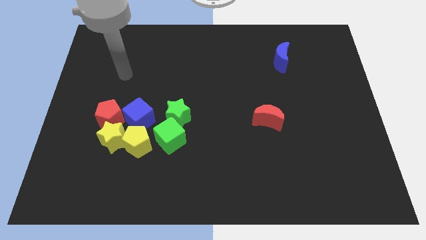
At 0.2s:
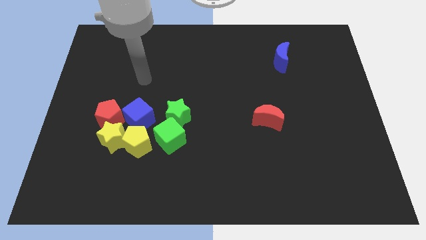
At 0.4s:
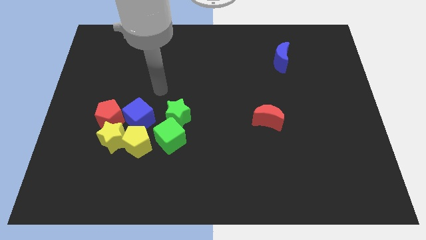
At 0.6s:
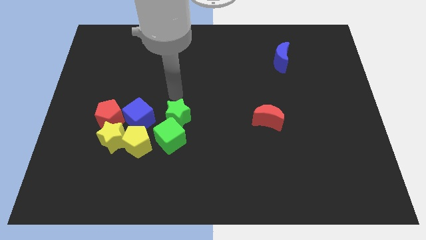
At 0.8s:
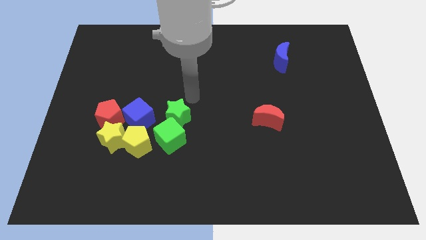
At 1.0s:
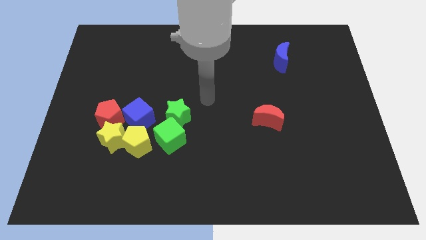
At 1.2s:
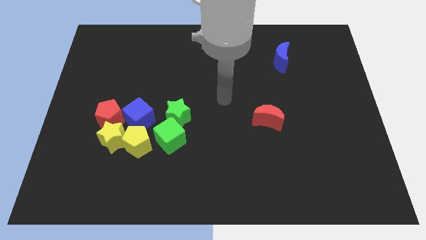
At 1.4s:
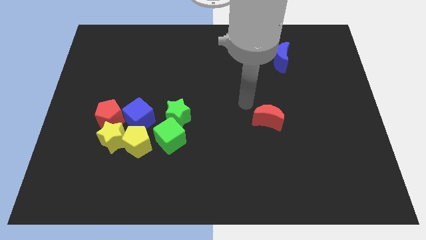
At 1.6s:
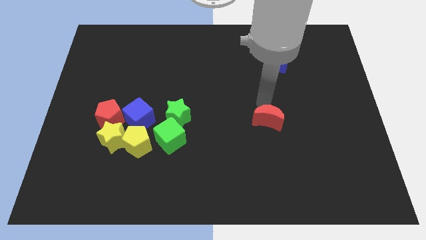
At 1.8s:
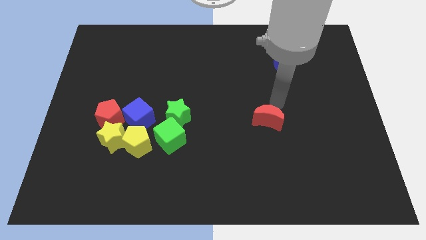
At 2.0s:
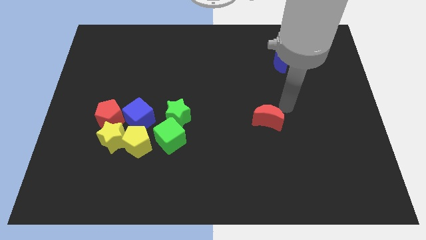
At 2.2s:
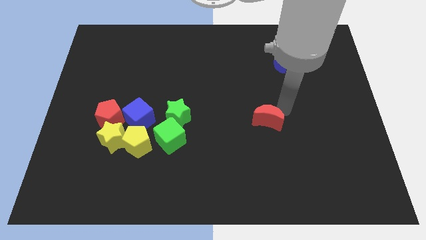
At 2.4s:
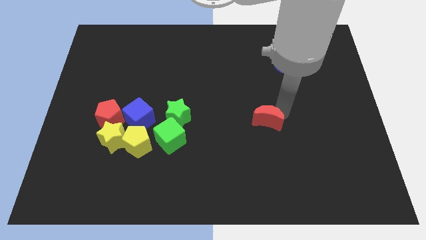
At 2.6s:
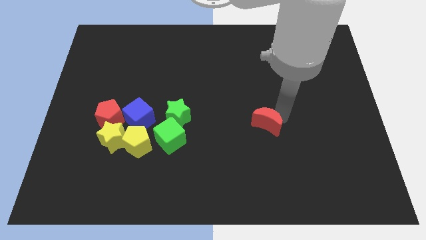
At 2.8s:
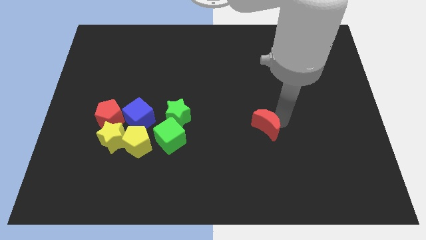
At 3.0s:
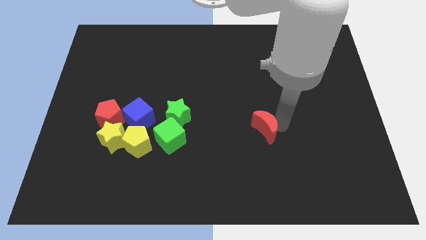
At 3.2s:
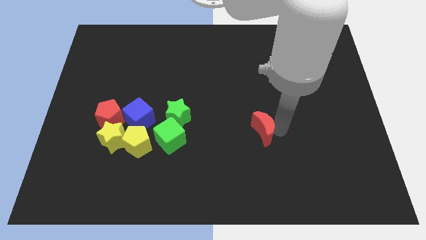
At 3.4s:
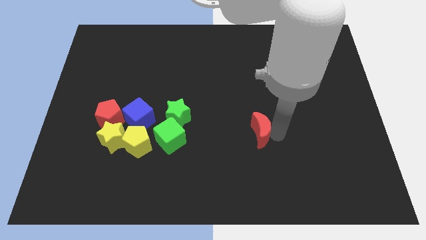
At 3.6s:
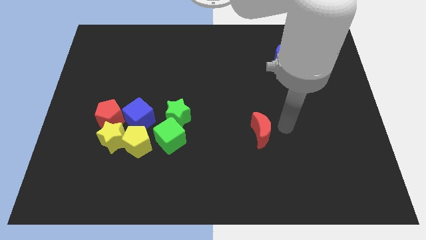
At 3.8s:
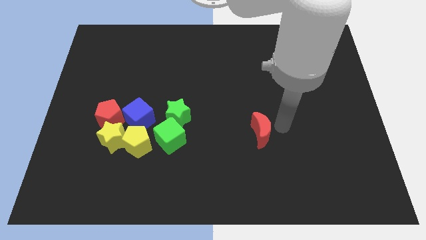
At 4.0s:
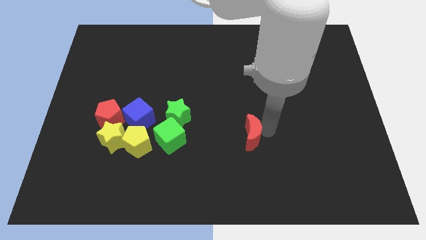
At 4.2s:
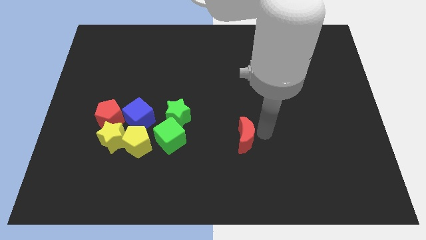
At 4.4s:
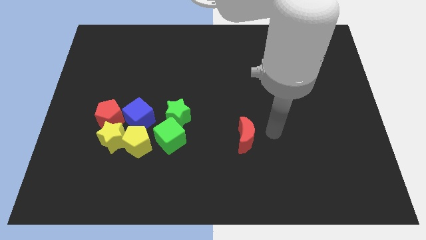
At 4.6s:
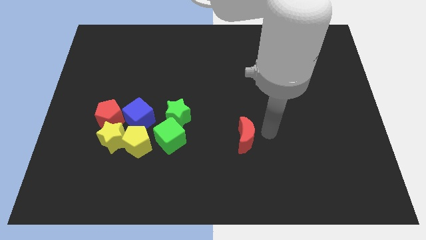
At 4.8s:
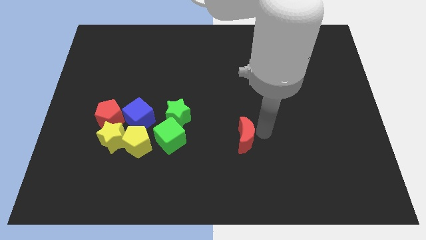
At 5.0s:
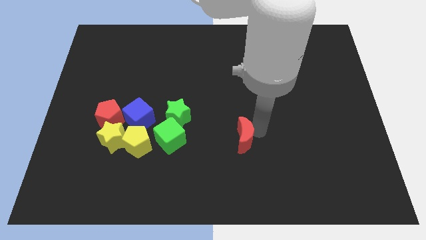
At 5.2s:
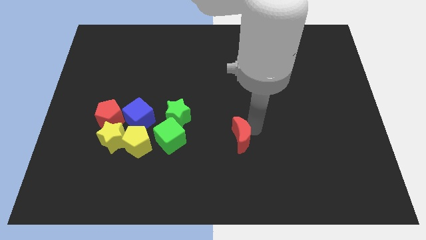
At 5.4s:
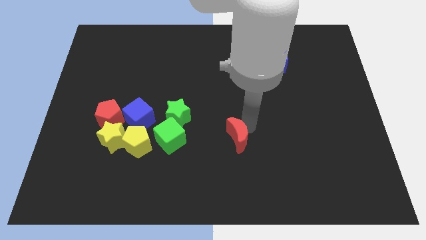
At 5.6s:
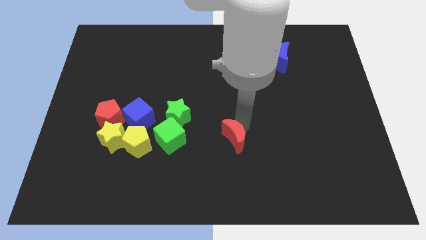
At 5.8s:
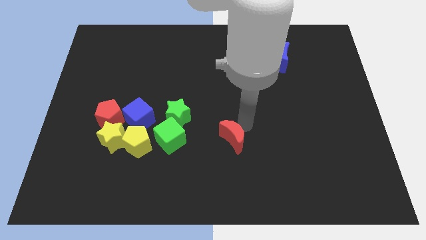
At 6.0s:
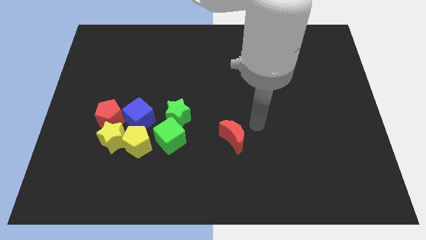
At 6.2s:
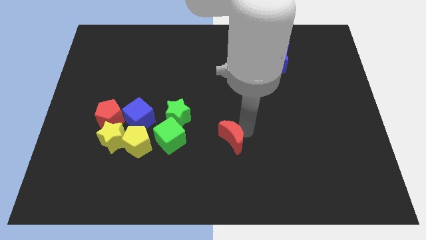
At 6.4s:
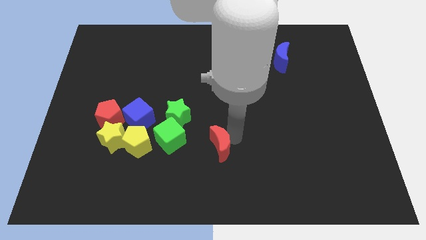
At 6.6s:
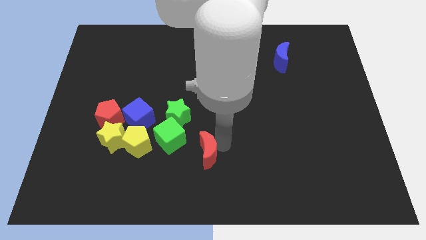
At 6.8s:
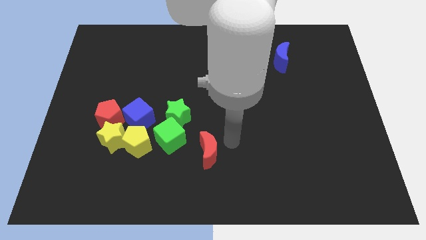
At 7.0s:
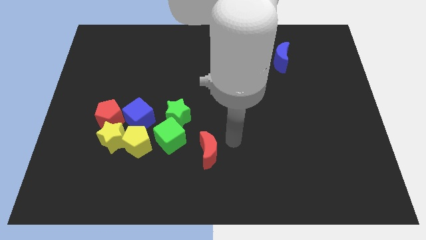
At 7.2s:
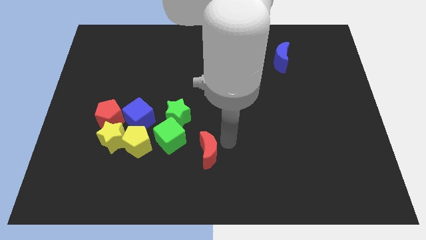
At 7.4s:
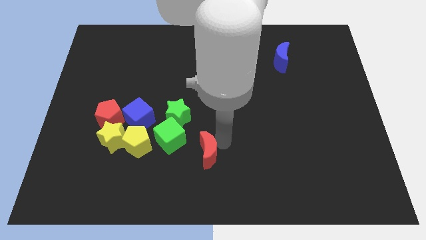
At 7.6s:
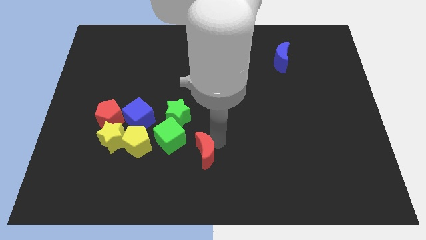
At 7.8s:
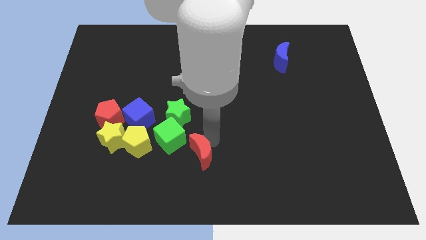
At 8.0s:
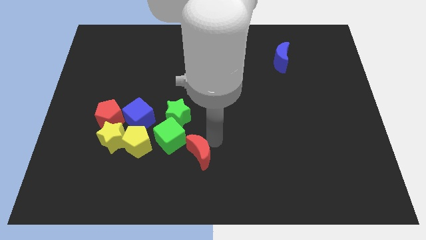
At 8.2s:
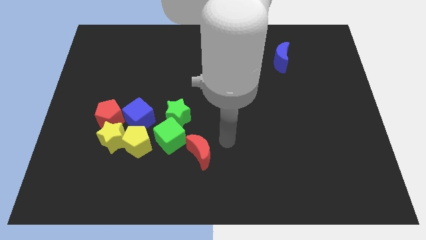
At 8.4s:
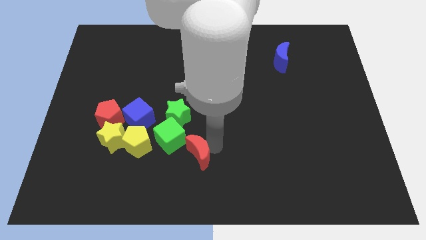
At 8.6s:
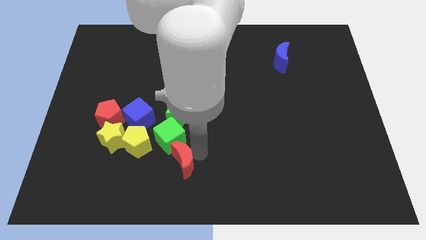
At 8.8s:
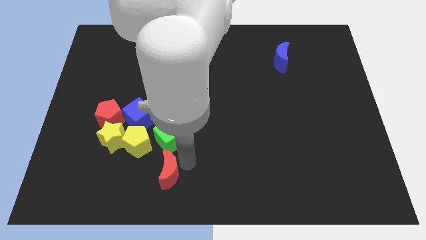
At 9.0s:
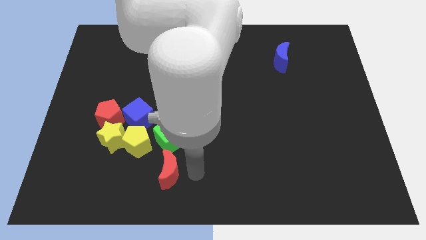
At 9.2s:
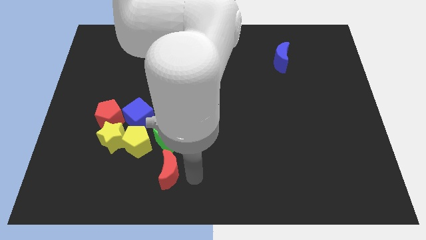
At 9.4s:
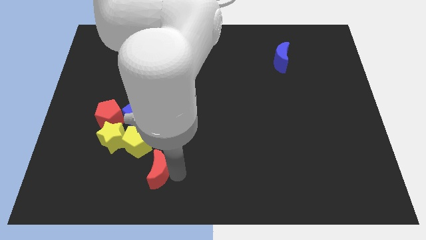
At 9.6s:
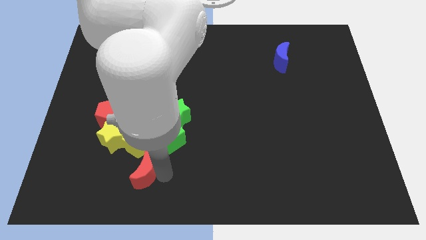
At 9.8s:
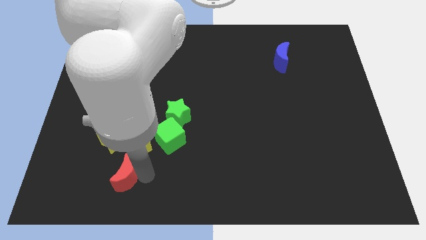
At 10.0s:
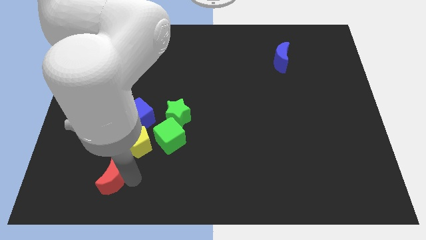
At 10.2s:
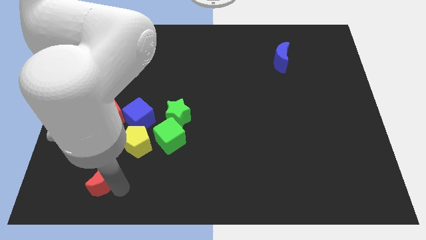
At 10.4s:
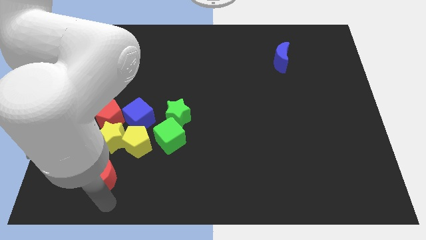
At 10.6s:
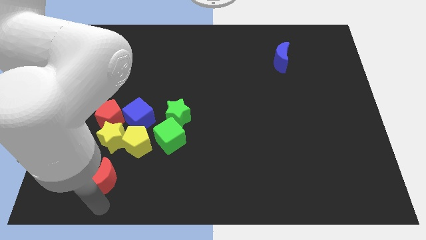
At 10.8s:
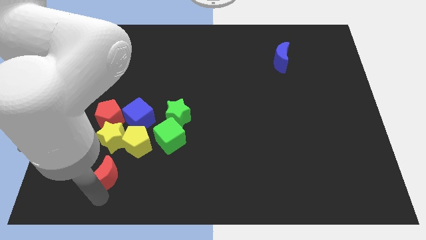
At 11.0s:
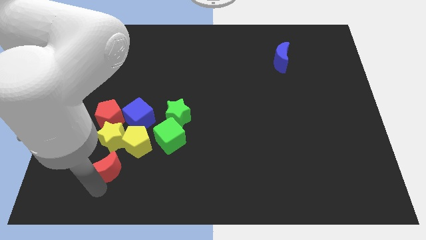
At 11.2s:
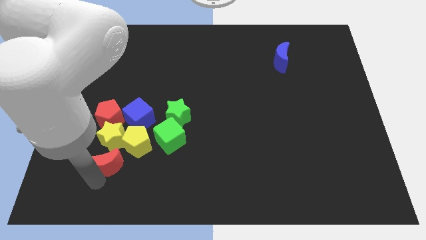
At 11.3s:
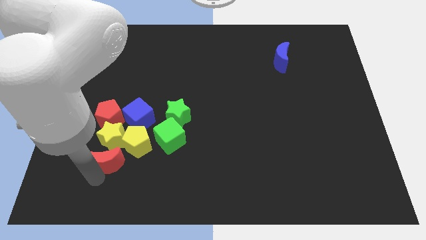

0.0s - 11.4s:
slide the red moon to the yellow star

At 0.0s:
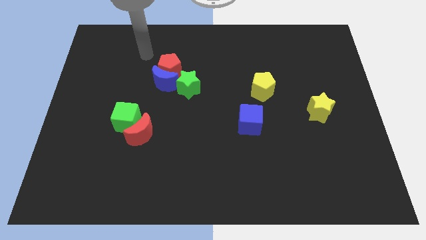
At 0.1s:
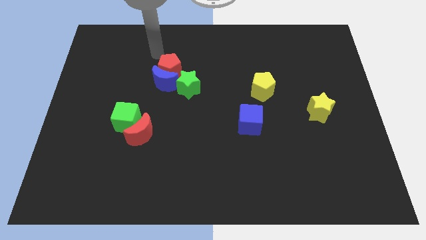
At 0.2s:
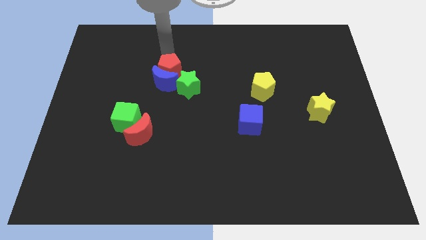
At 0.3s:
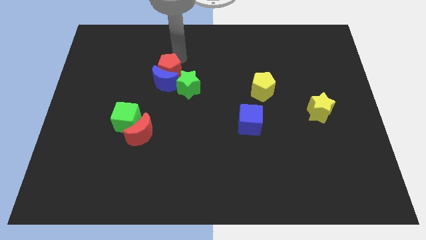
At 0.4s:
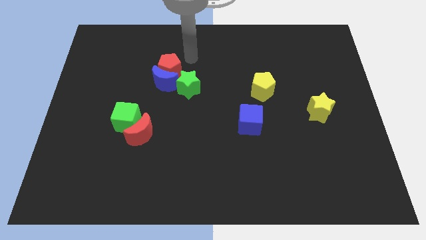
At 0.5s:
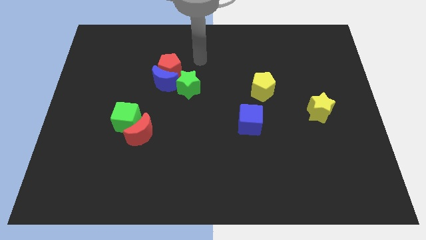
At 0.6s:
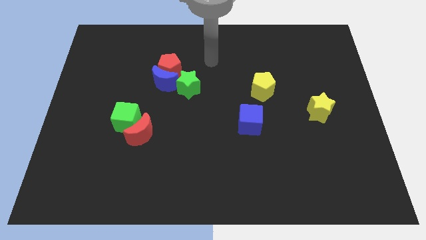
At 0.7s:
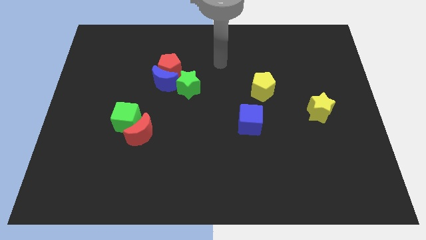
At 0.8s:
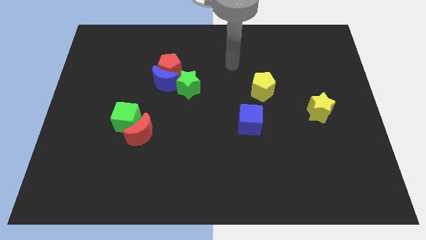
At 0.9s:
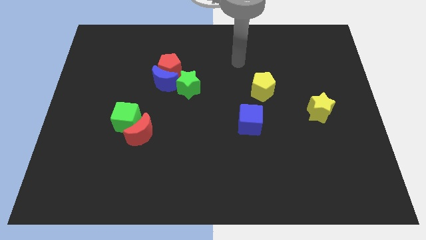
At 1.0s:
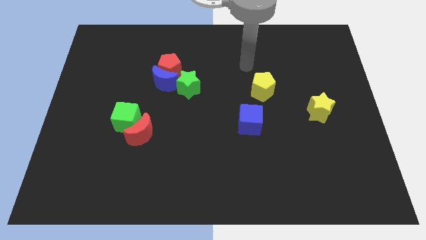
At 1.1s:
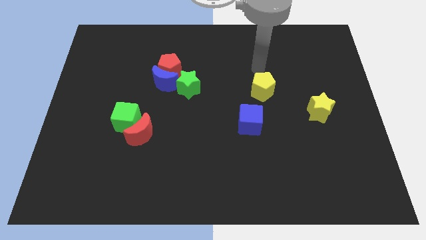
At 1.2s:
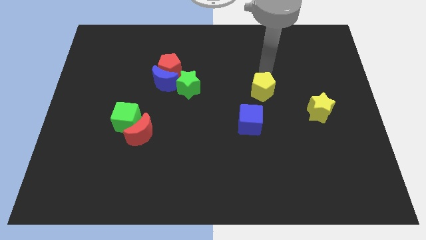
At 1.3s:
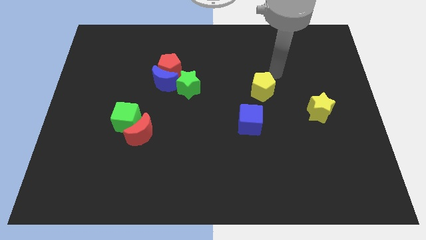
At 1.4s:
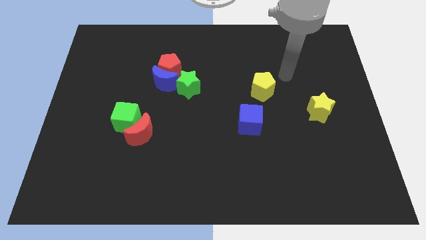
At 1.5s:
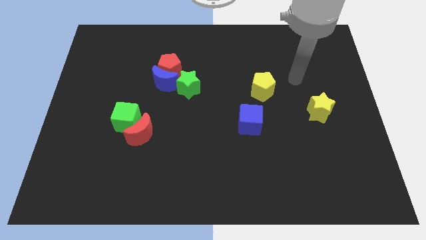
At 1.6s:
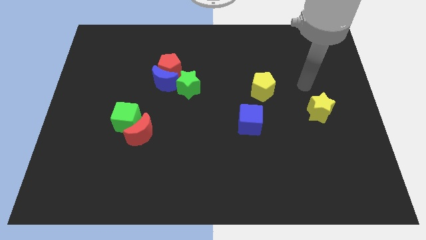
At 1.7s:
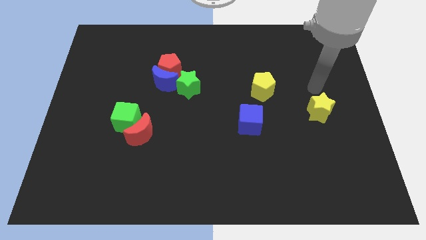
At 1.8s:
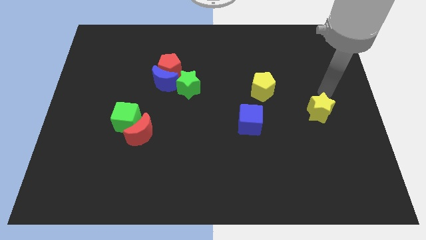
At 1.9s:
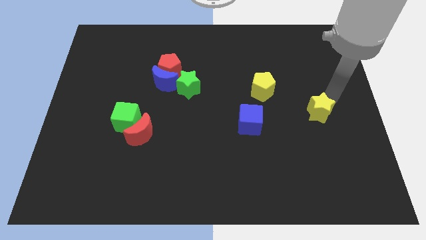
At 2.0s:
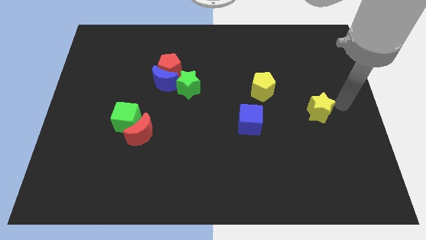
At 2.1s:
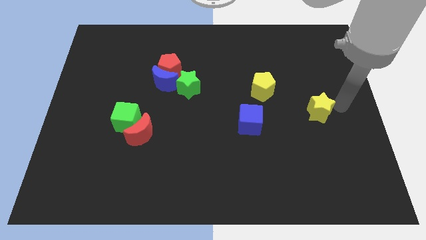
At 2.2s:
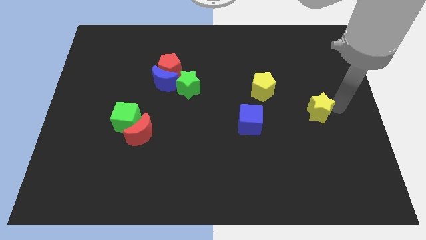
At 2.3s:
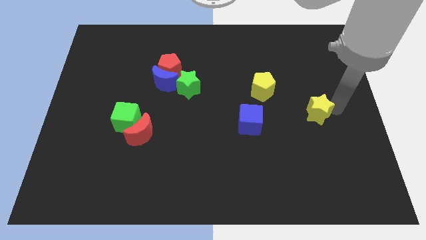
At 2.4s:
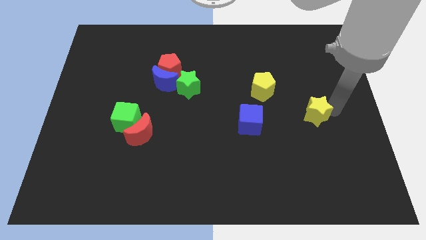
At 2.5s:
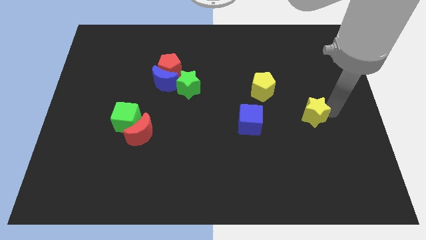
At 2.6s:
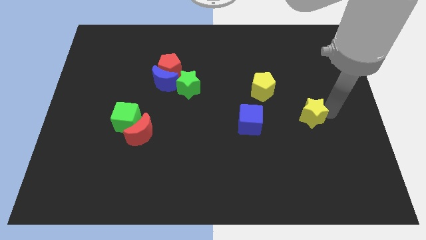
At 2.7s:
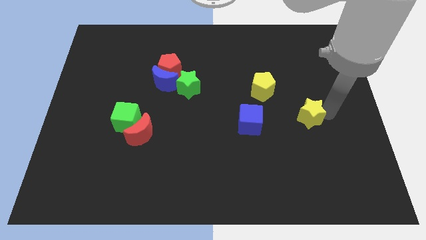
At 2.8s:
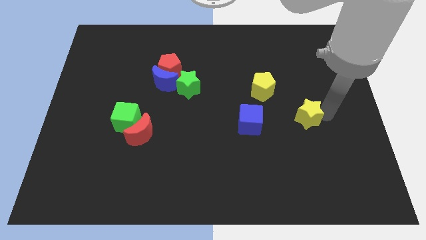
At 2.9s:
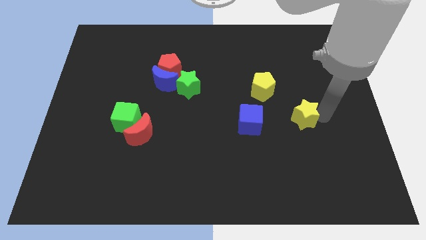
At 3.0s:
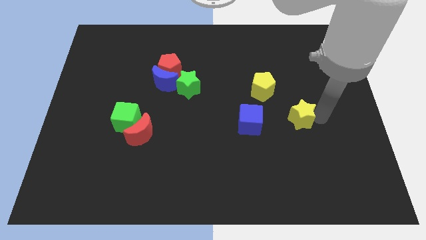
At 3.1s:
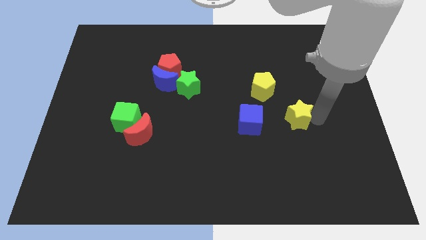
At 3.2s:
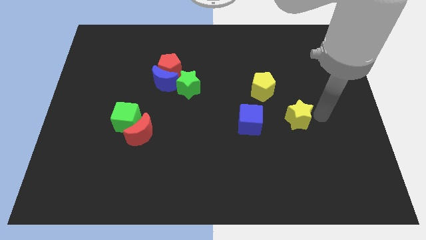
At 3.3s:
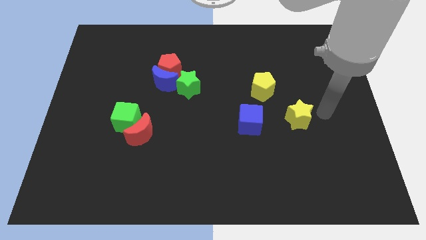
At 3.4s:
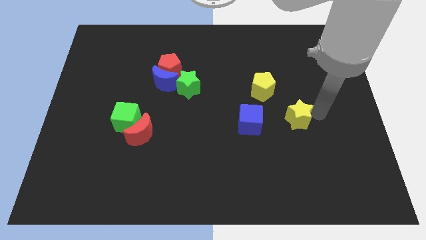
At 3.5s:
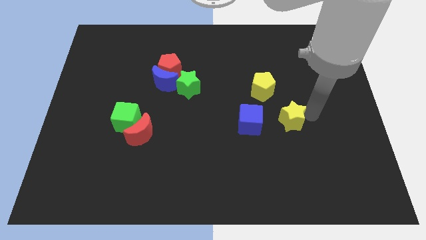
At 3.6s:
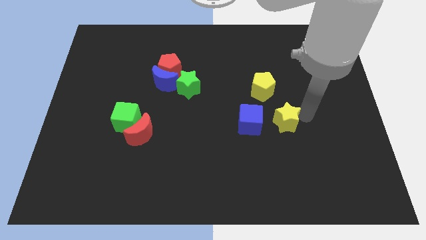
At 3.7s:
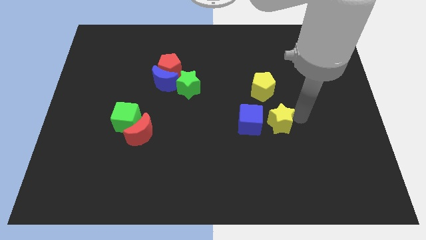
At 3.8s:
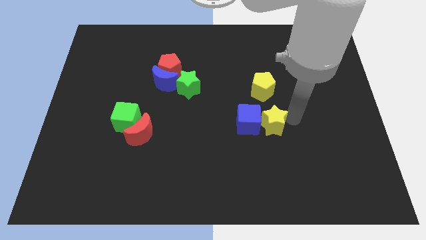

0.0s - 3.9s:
move the yellow star next to the blue cube
